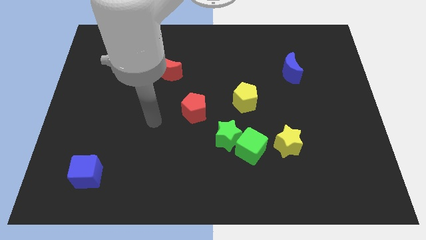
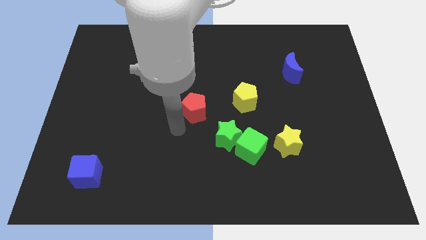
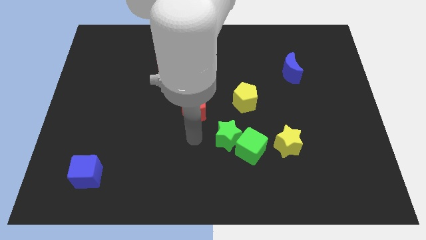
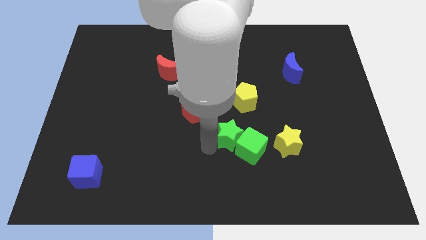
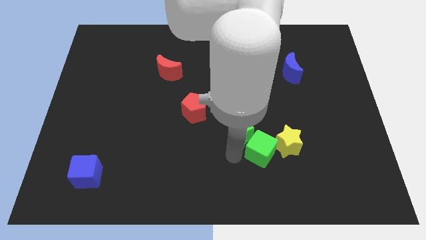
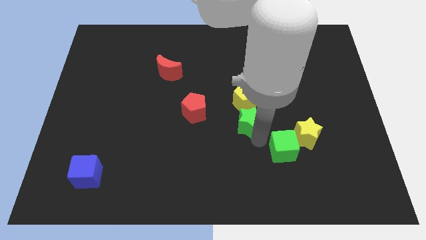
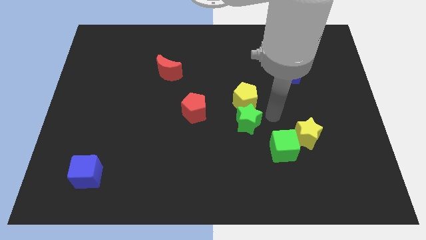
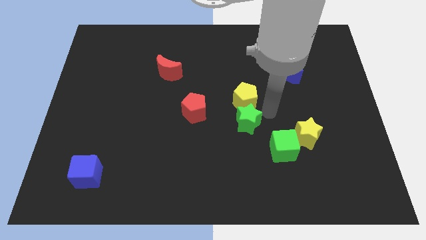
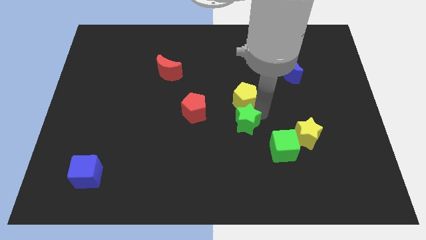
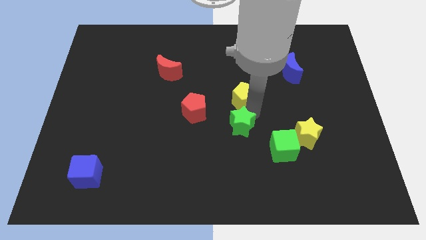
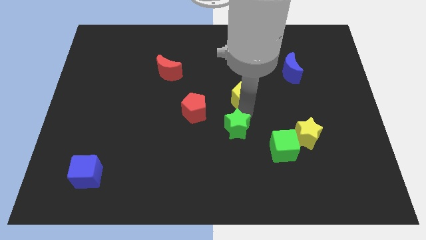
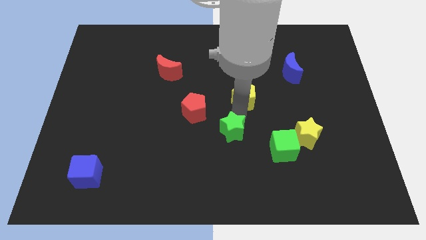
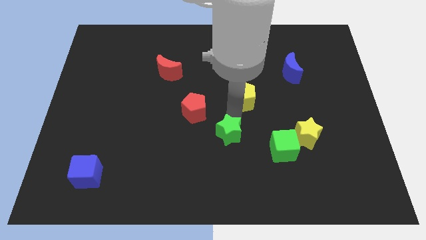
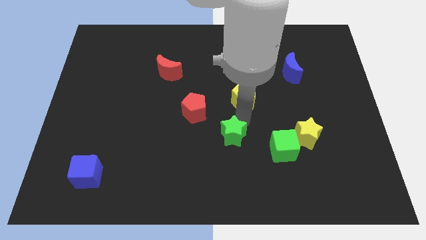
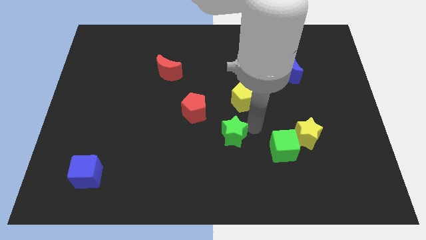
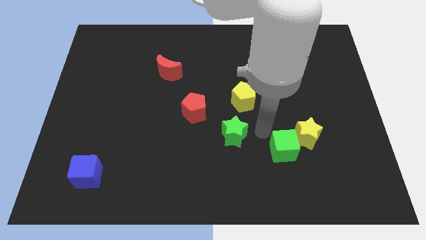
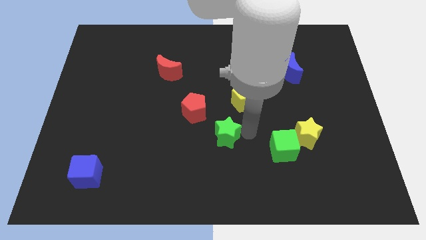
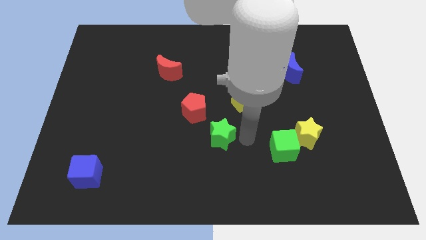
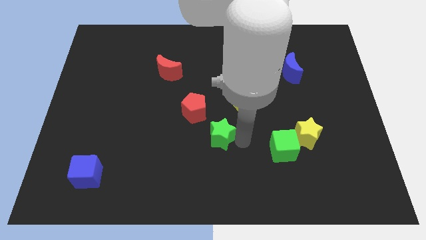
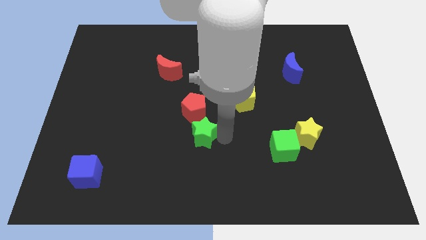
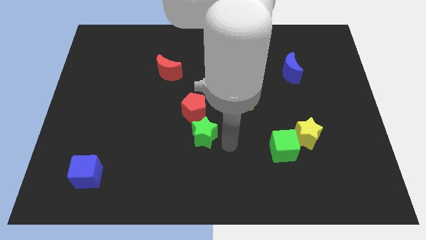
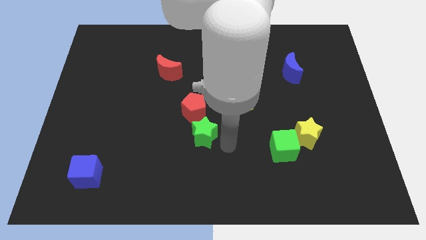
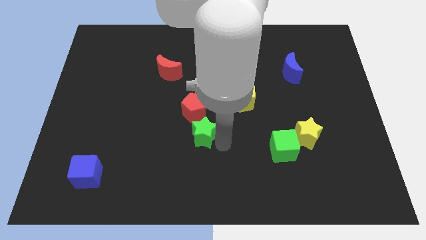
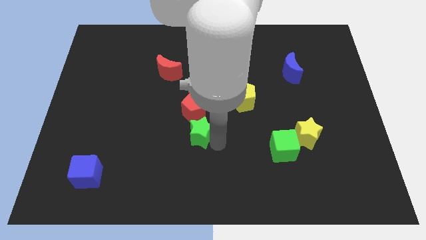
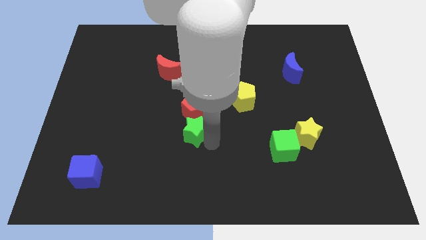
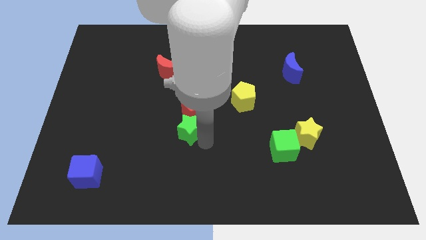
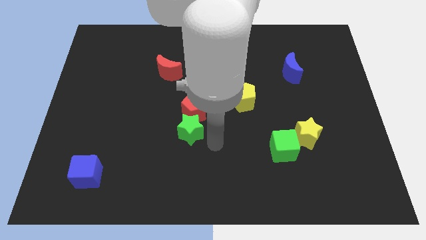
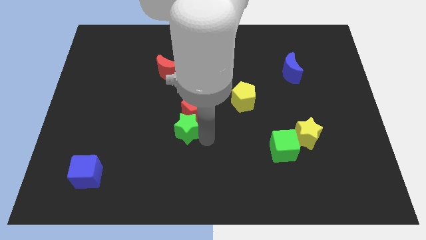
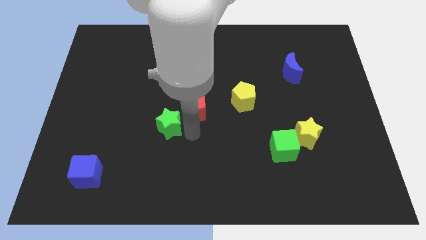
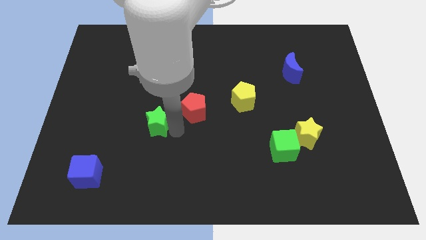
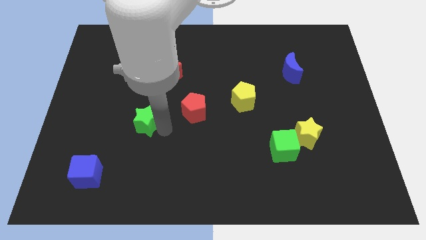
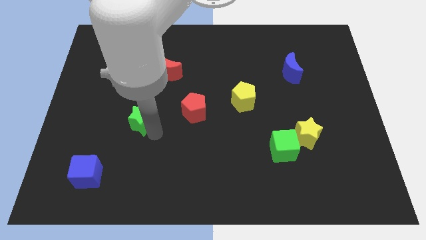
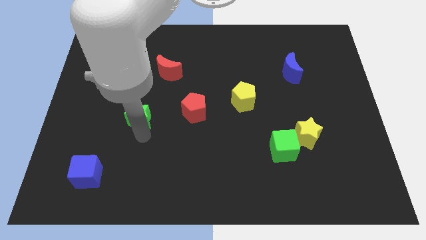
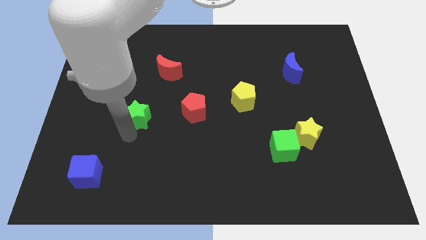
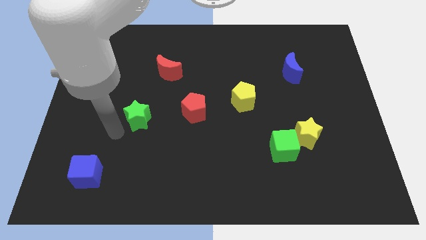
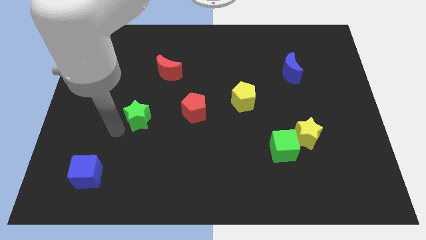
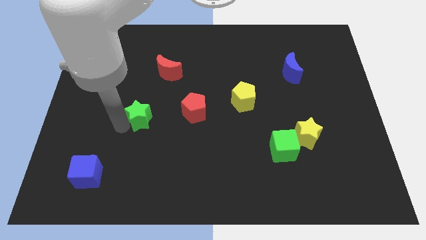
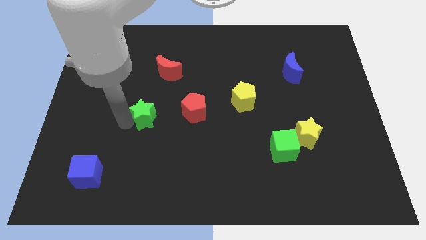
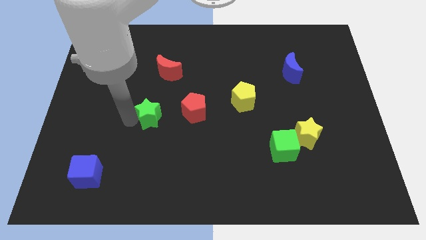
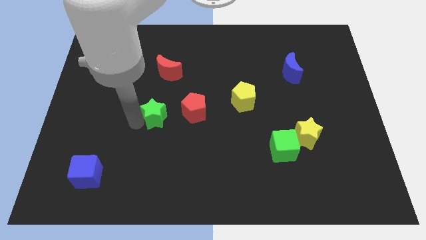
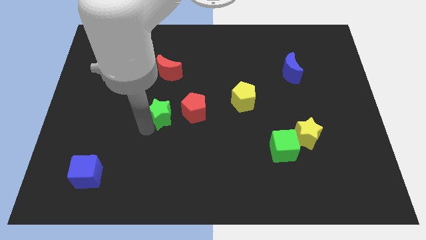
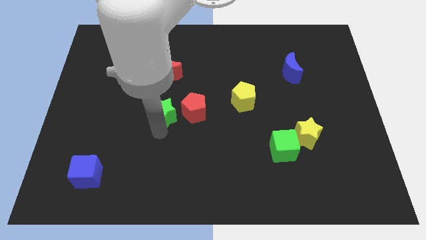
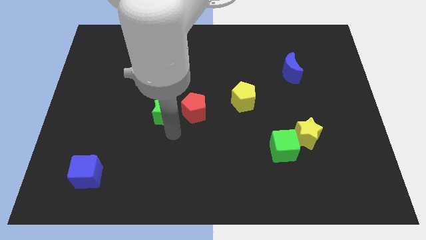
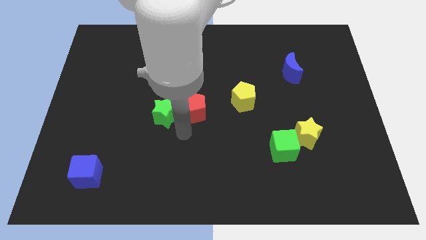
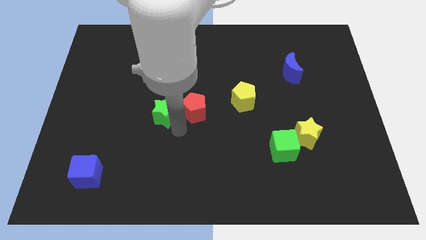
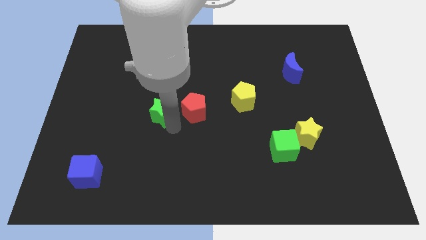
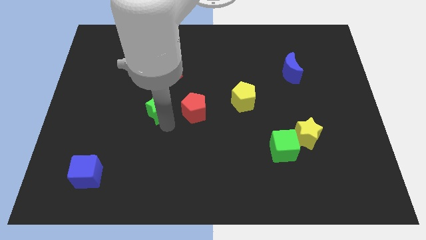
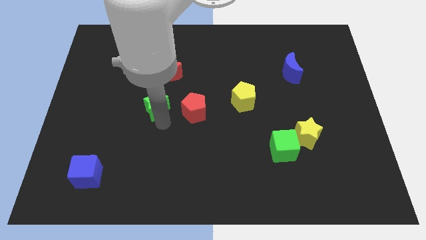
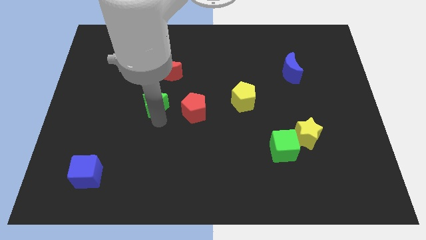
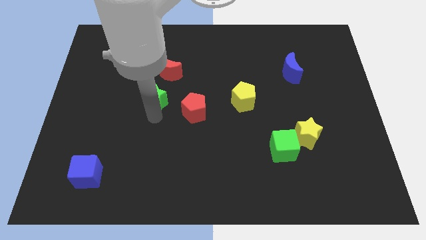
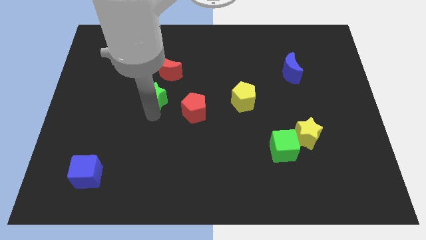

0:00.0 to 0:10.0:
slide the green star to the bottom left side of the red moon

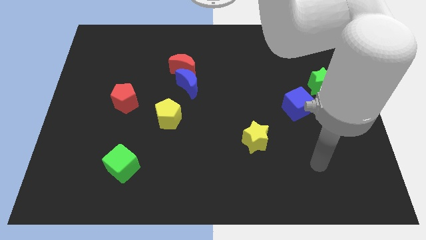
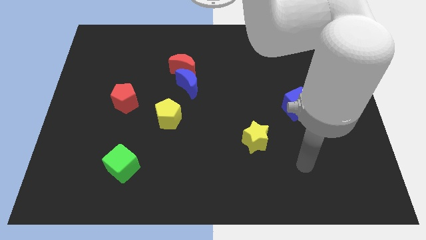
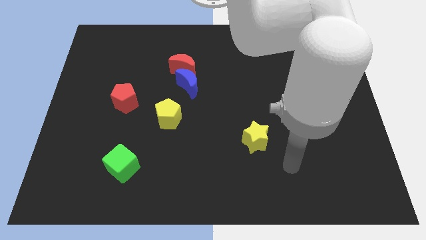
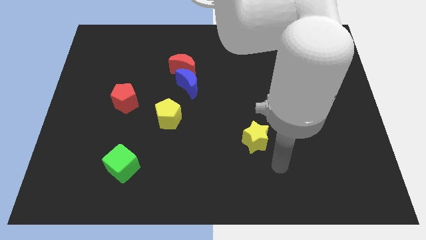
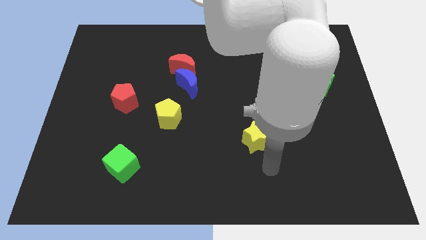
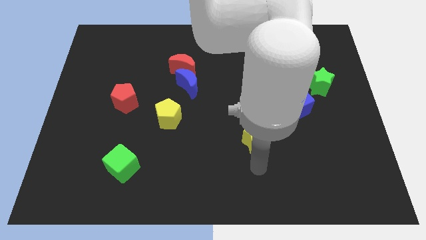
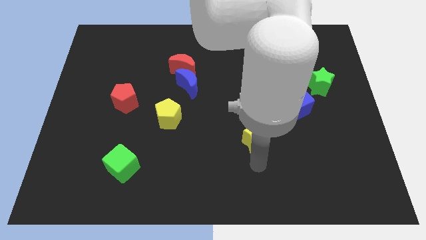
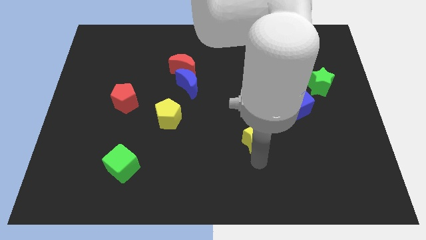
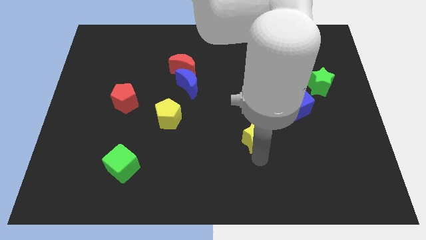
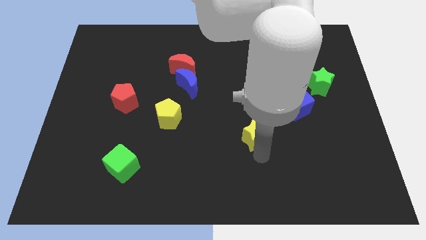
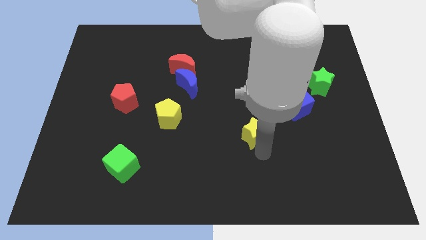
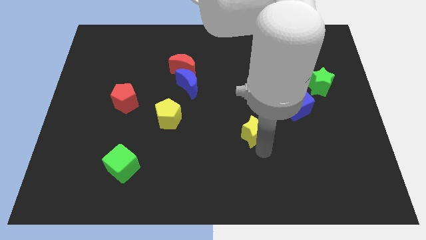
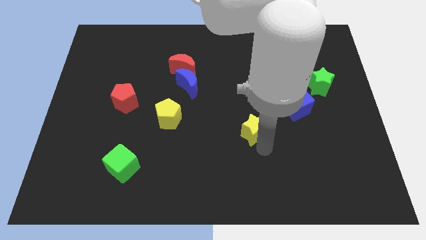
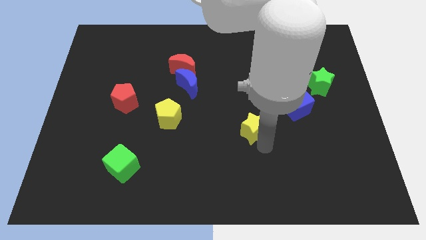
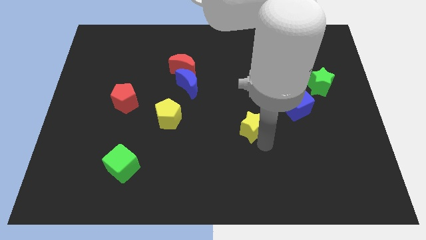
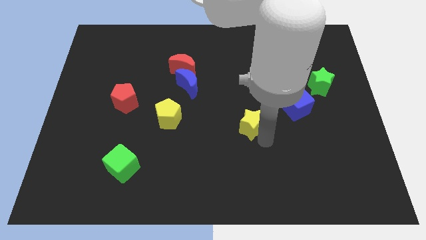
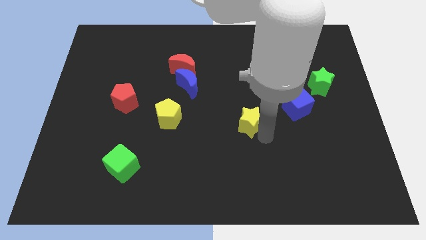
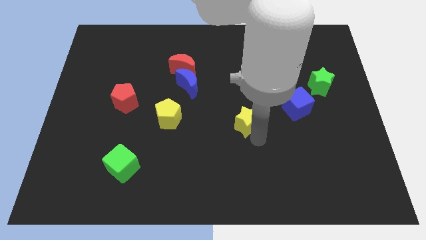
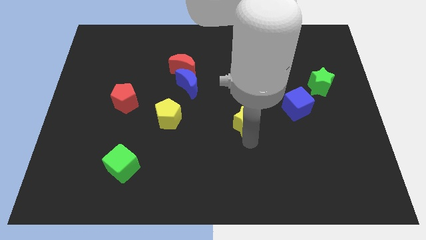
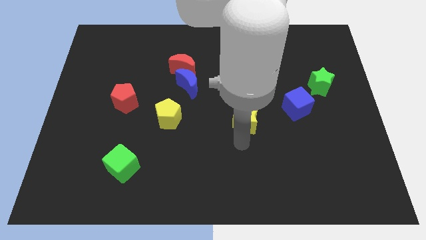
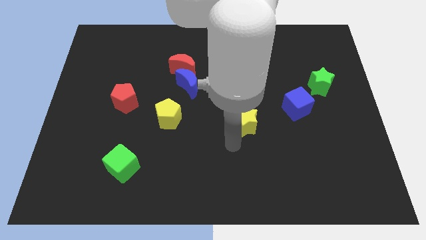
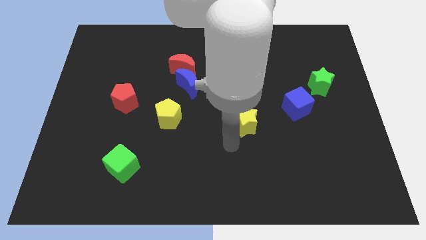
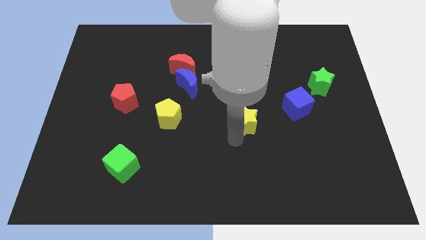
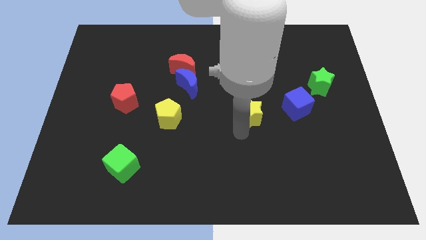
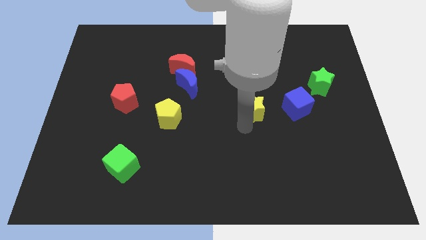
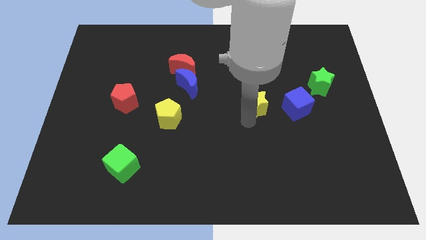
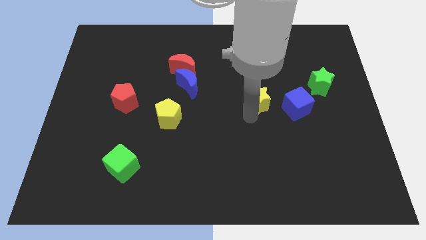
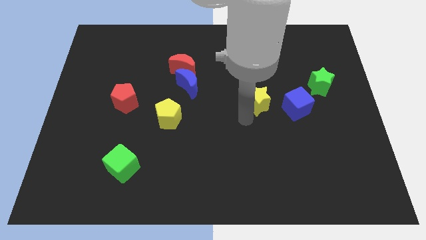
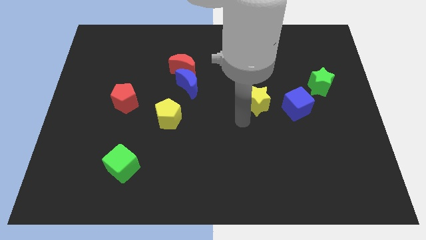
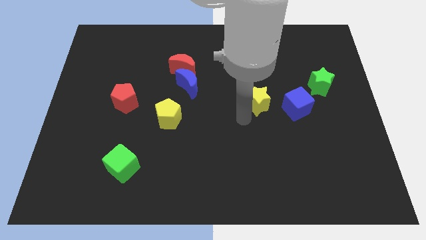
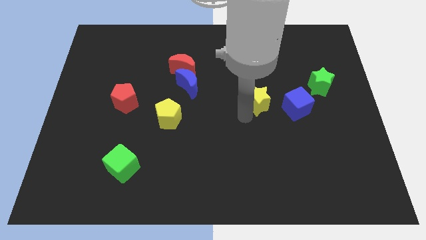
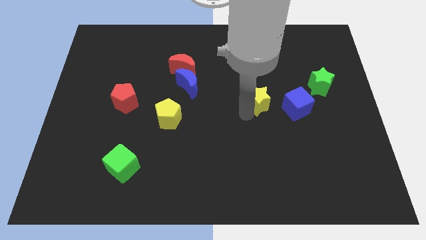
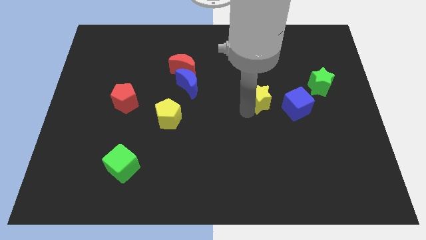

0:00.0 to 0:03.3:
slide the yellow star to the top left of the blue cube
